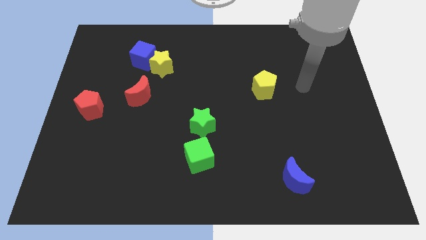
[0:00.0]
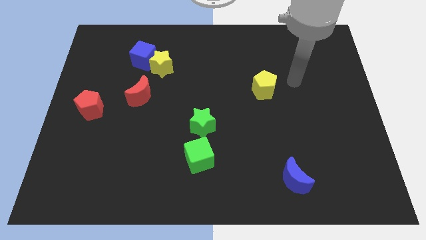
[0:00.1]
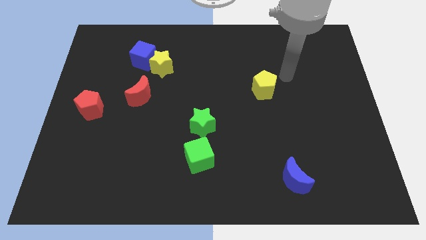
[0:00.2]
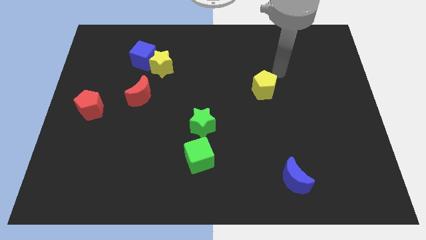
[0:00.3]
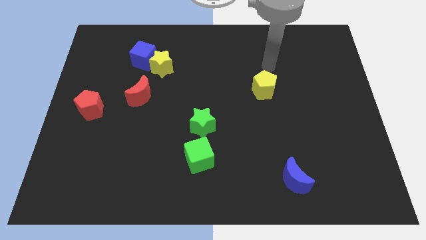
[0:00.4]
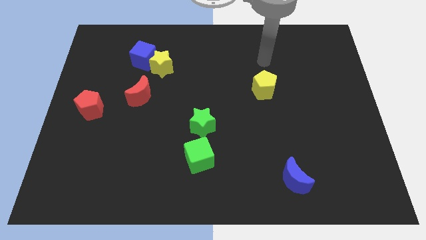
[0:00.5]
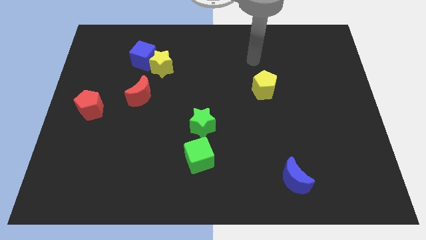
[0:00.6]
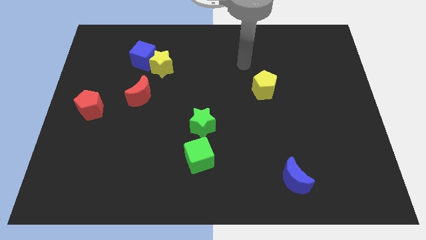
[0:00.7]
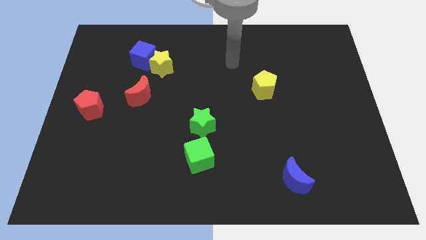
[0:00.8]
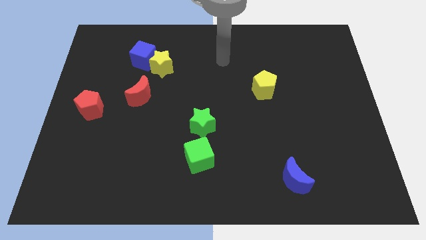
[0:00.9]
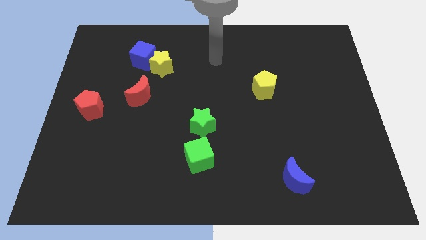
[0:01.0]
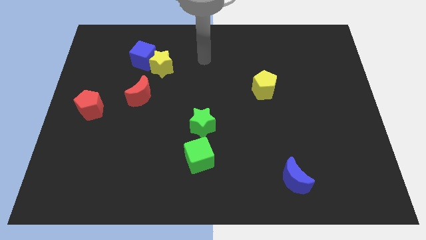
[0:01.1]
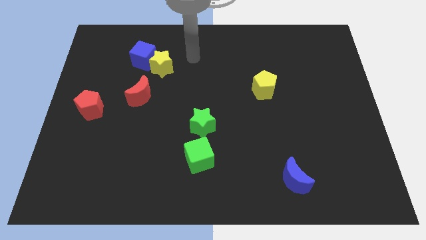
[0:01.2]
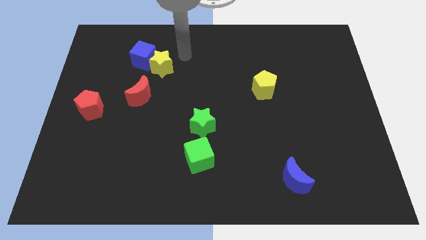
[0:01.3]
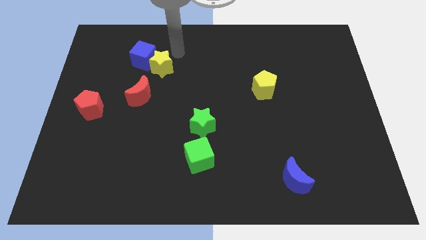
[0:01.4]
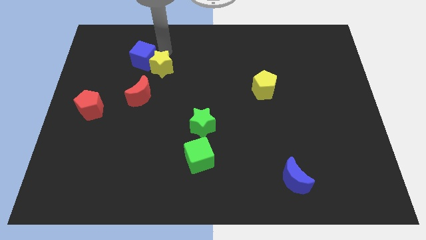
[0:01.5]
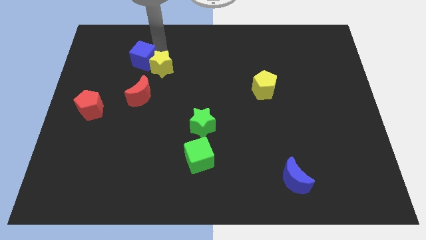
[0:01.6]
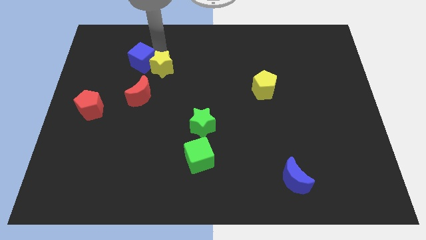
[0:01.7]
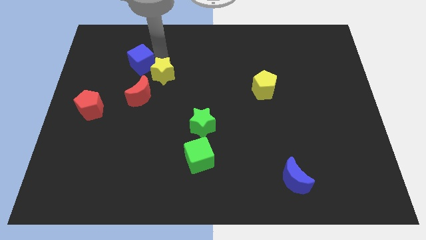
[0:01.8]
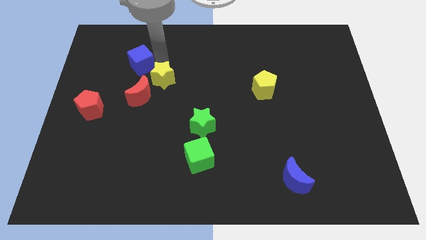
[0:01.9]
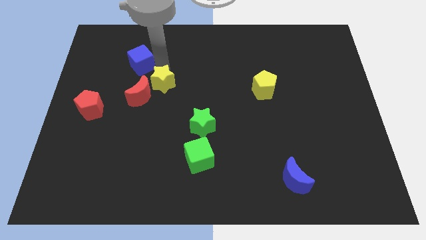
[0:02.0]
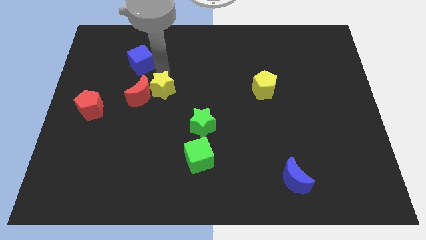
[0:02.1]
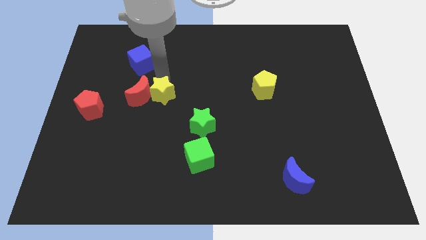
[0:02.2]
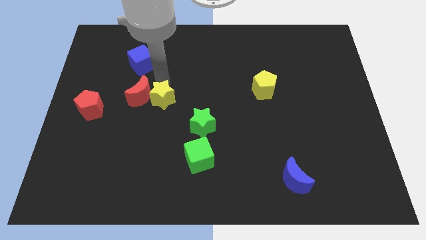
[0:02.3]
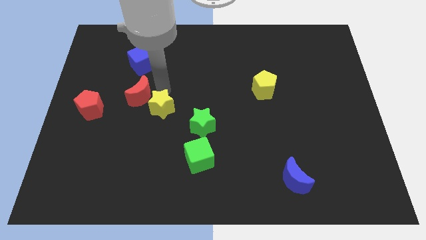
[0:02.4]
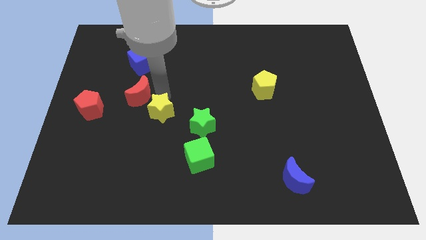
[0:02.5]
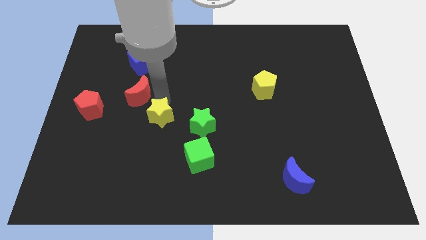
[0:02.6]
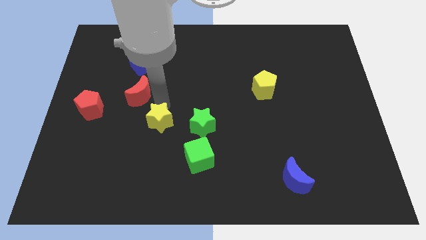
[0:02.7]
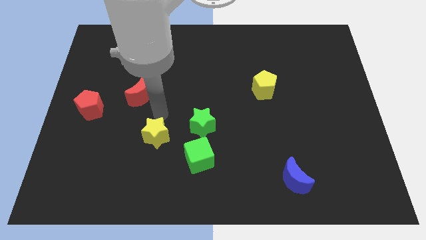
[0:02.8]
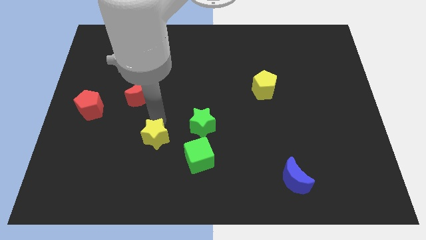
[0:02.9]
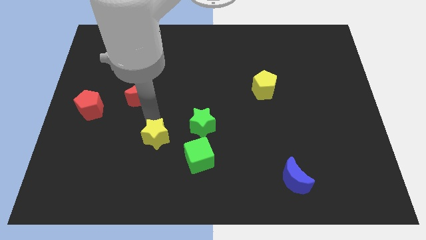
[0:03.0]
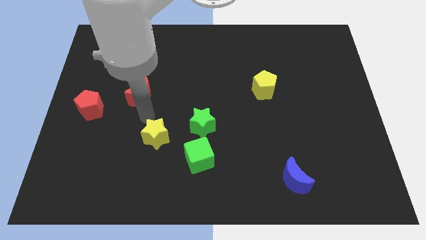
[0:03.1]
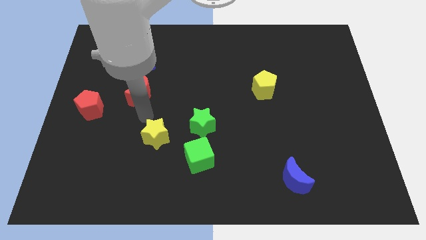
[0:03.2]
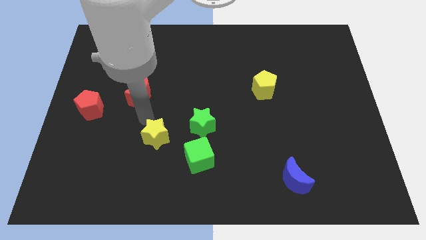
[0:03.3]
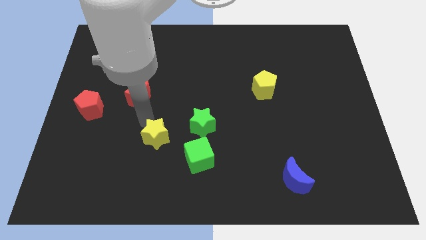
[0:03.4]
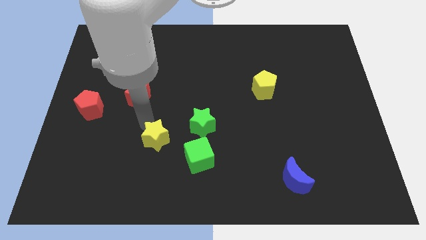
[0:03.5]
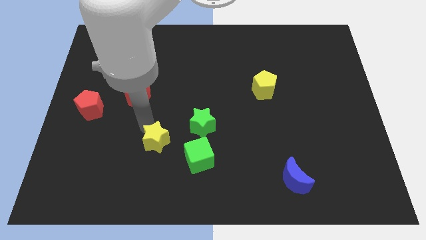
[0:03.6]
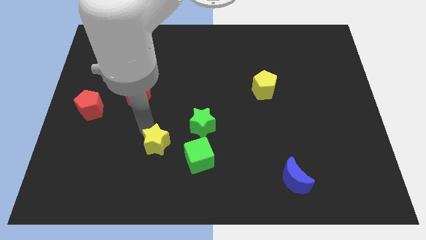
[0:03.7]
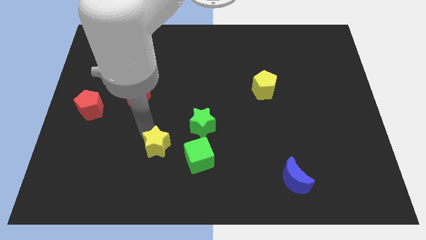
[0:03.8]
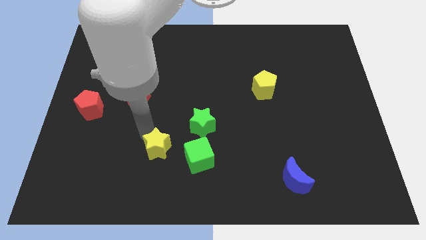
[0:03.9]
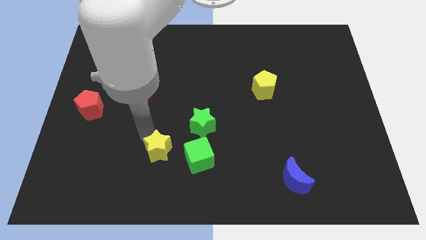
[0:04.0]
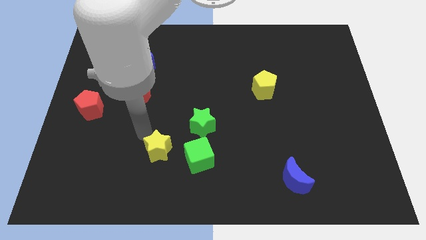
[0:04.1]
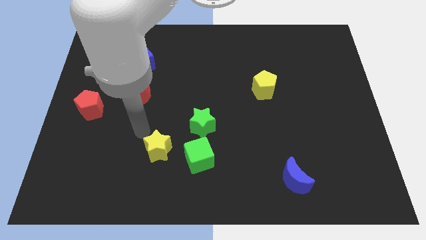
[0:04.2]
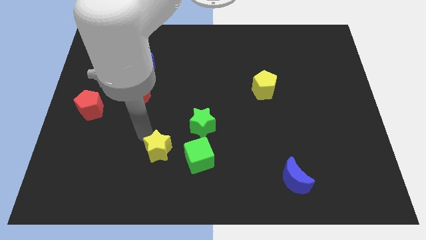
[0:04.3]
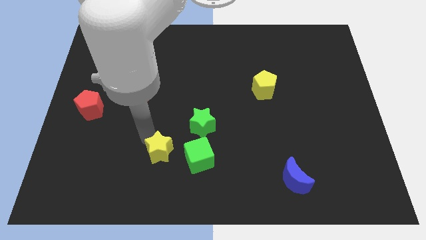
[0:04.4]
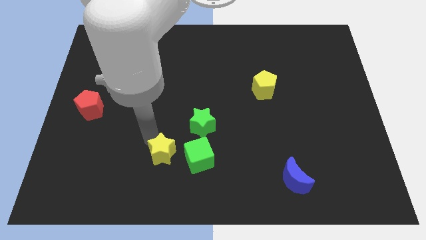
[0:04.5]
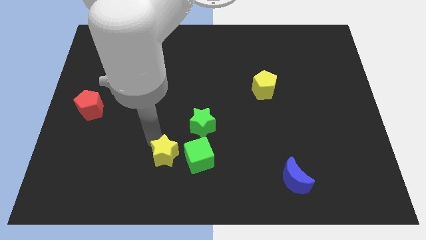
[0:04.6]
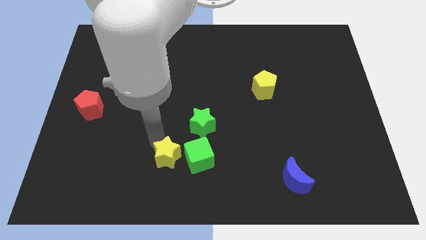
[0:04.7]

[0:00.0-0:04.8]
slide the yellow star to the bottom left of the green cube

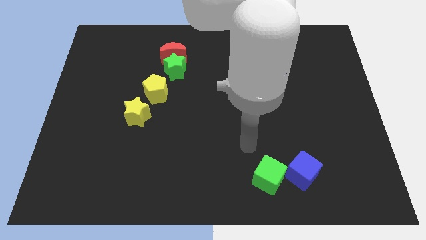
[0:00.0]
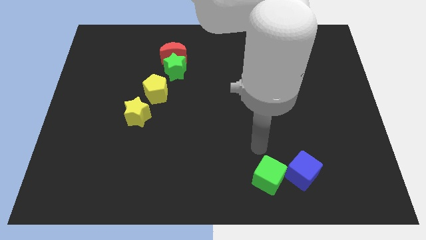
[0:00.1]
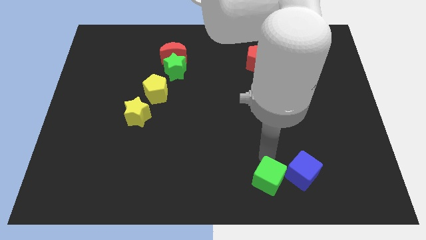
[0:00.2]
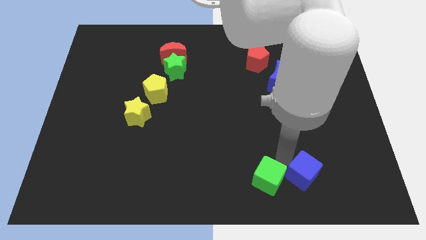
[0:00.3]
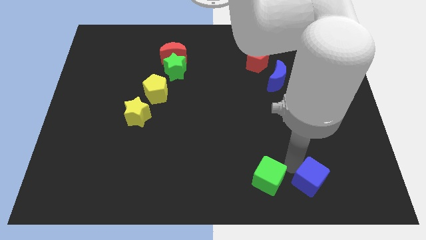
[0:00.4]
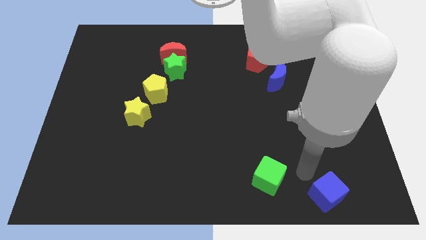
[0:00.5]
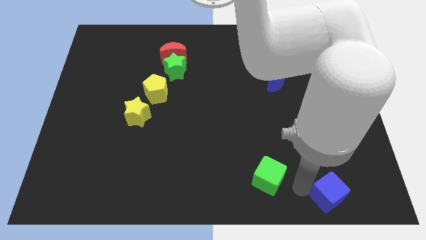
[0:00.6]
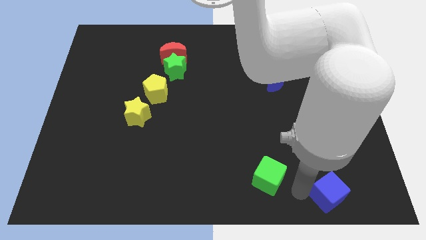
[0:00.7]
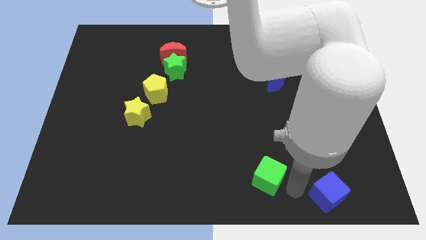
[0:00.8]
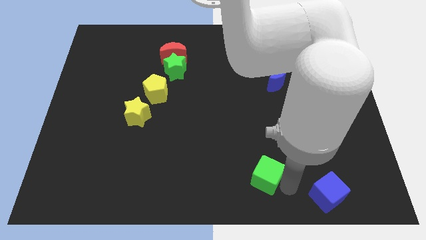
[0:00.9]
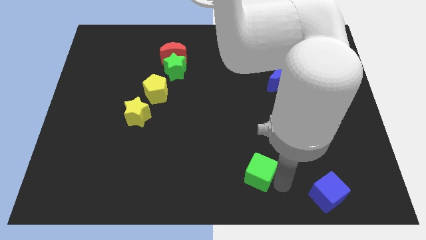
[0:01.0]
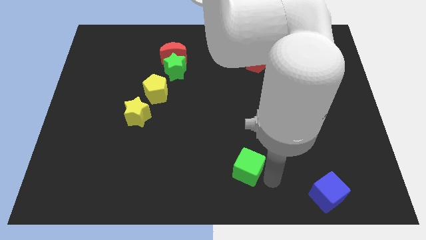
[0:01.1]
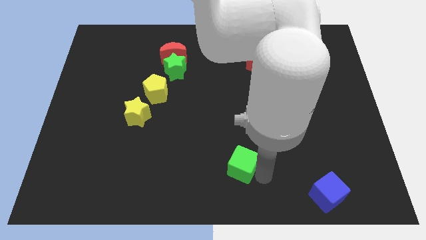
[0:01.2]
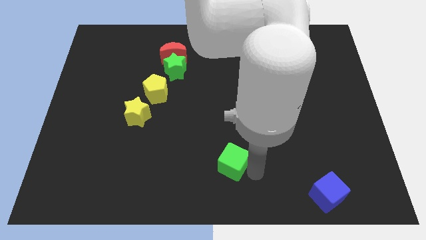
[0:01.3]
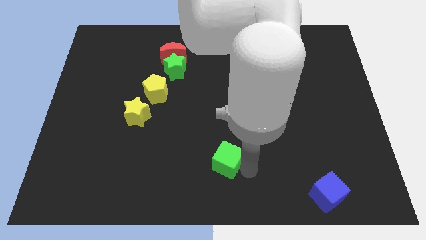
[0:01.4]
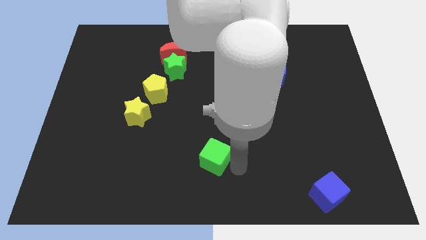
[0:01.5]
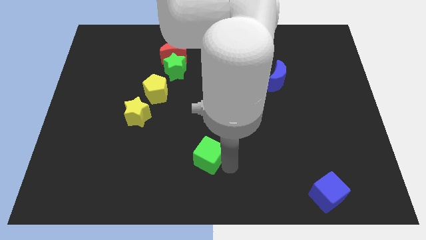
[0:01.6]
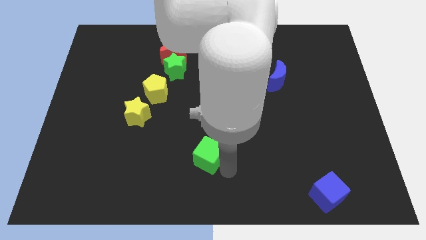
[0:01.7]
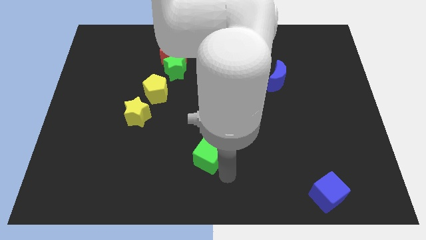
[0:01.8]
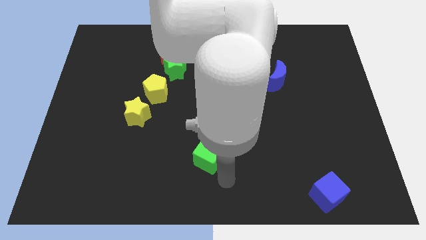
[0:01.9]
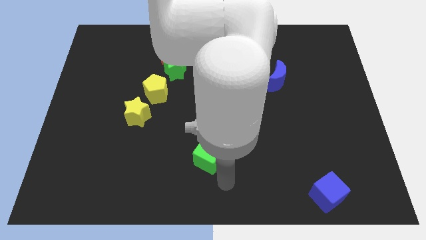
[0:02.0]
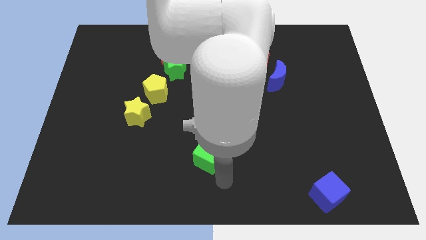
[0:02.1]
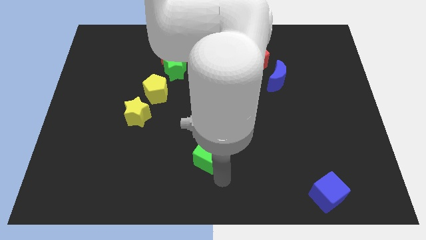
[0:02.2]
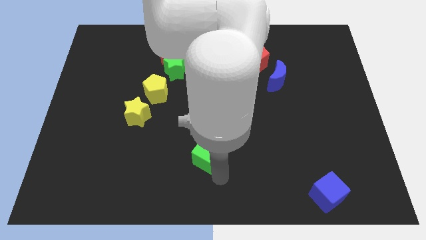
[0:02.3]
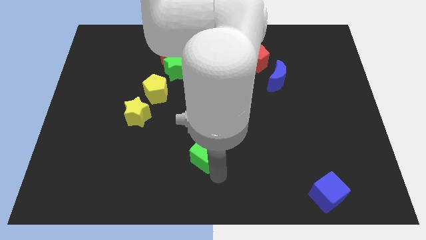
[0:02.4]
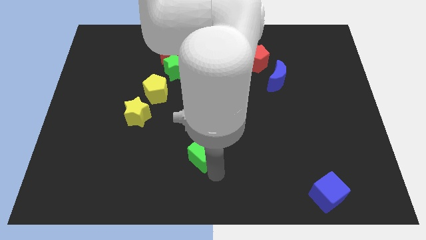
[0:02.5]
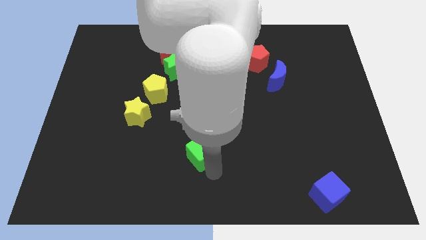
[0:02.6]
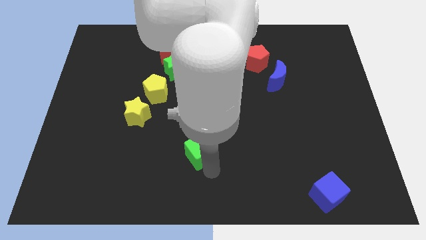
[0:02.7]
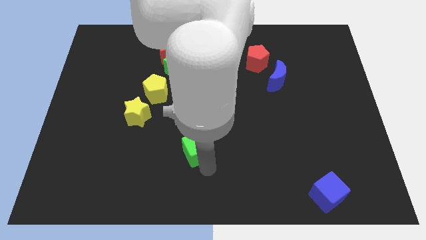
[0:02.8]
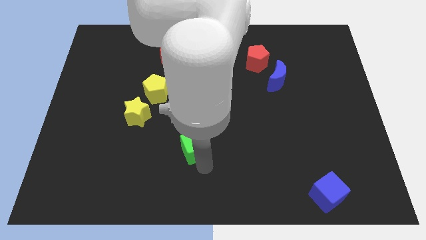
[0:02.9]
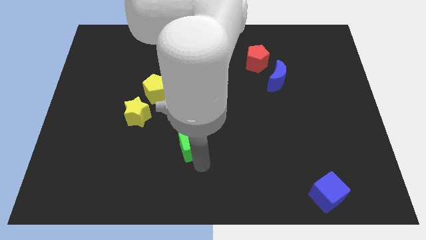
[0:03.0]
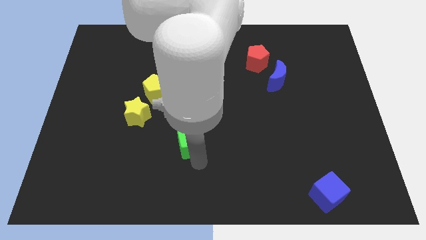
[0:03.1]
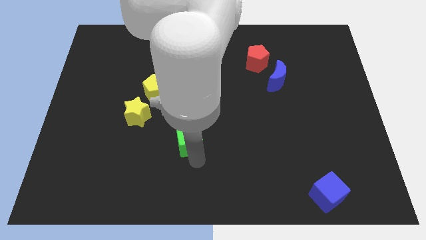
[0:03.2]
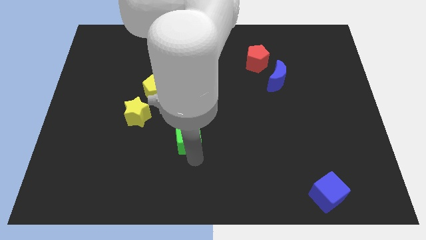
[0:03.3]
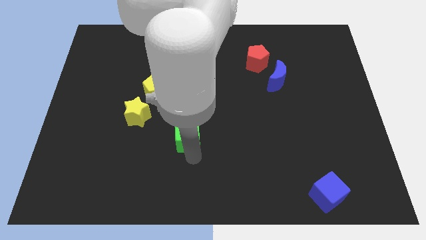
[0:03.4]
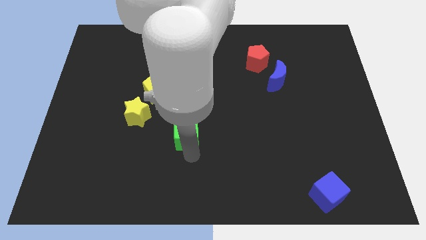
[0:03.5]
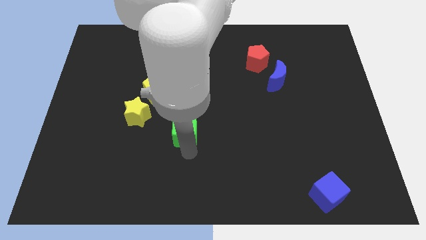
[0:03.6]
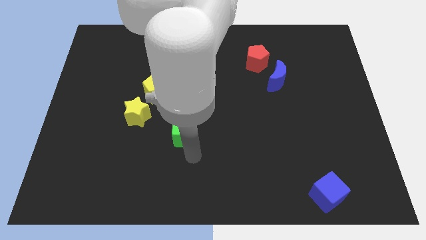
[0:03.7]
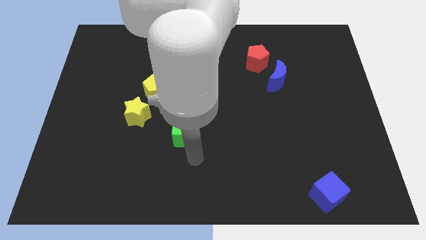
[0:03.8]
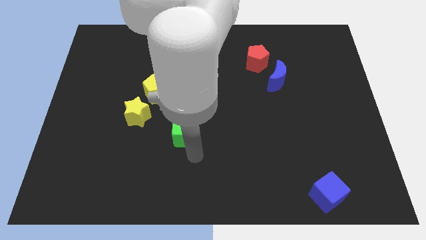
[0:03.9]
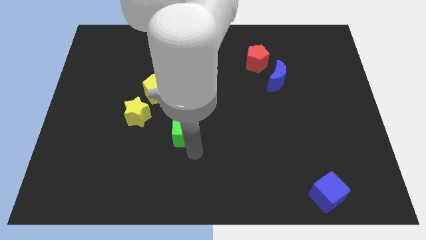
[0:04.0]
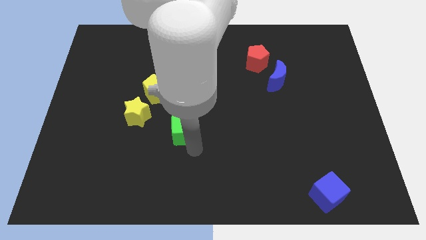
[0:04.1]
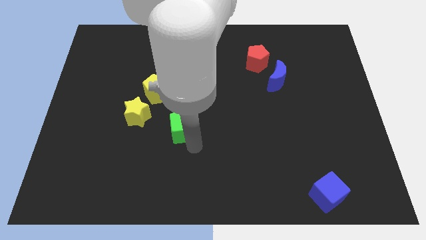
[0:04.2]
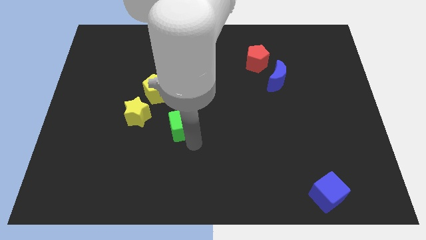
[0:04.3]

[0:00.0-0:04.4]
push the green cube to the bottom right of the yellow pentagon
